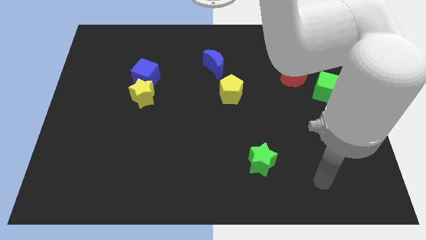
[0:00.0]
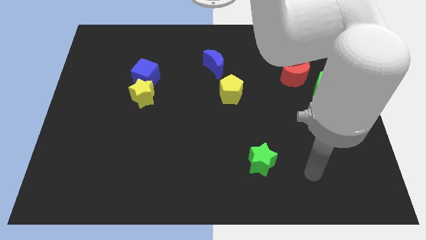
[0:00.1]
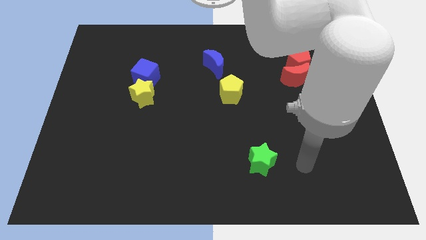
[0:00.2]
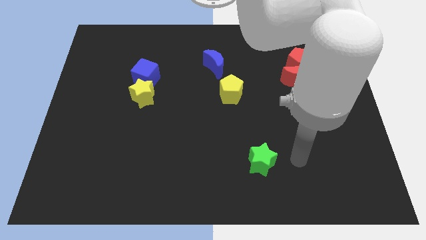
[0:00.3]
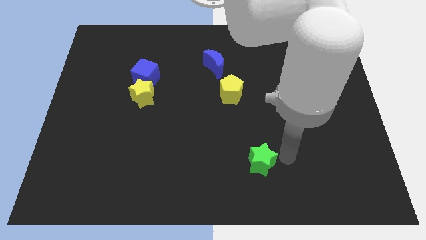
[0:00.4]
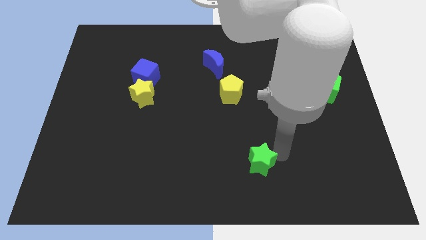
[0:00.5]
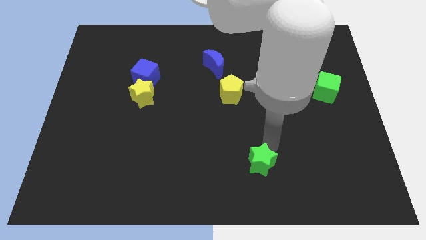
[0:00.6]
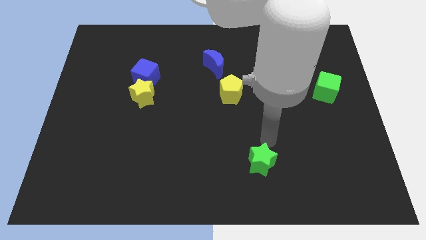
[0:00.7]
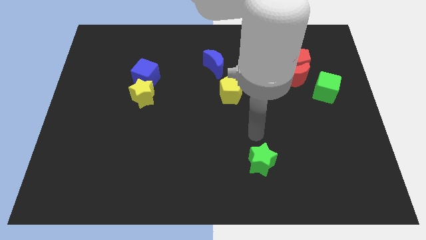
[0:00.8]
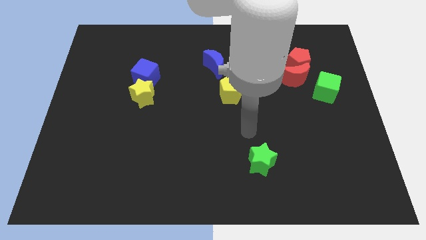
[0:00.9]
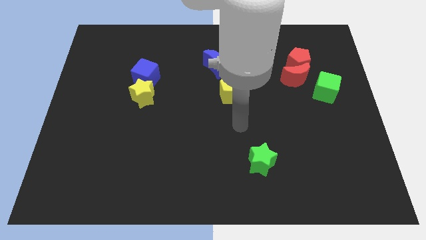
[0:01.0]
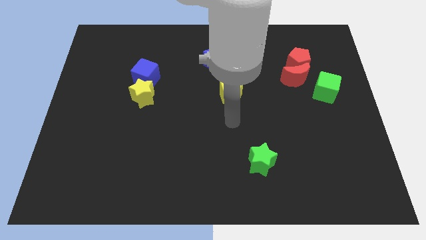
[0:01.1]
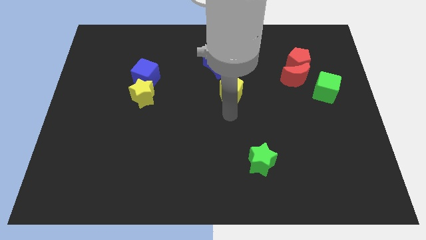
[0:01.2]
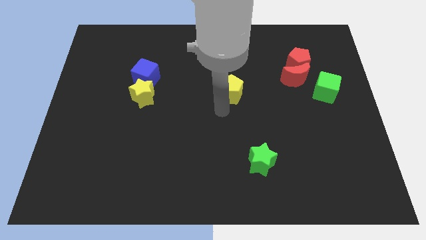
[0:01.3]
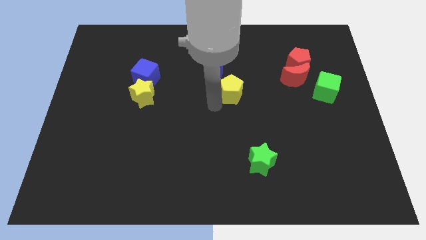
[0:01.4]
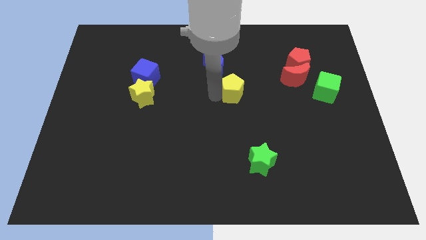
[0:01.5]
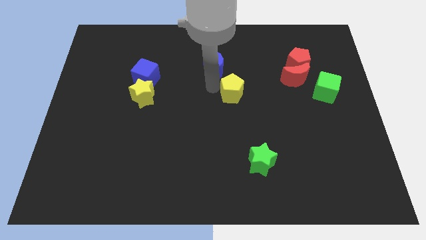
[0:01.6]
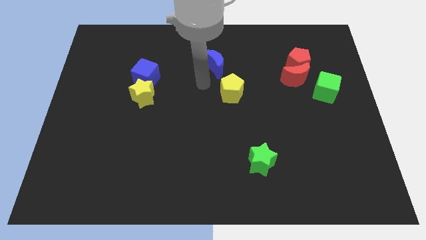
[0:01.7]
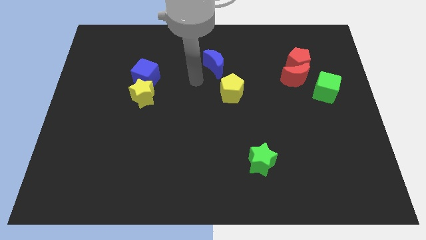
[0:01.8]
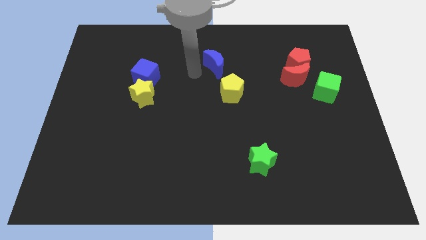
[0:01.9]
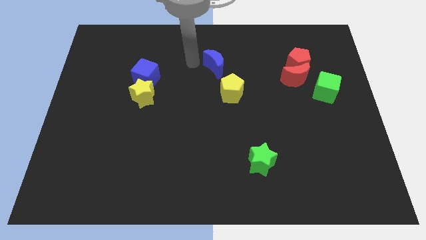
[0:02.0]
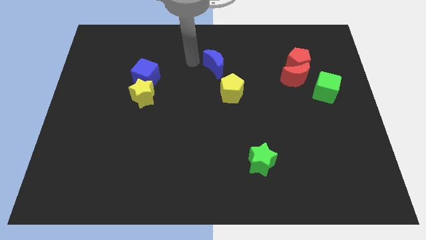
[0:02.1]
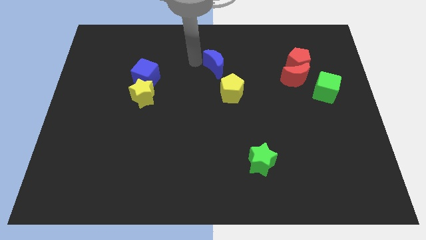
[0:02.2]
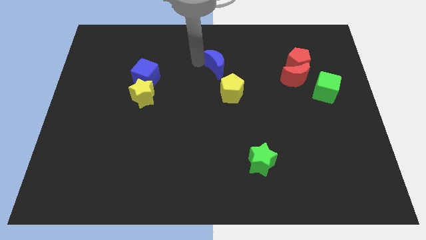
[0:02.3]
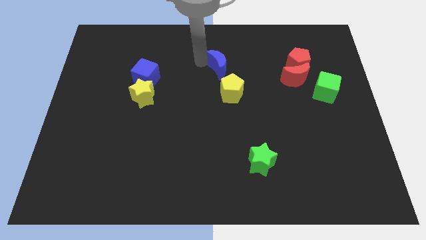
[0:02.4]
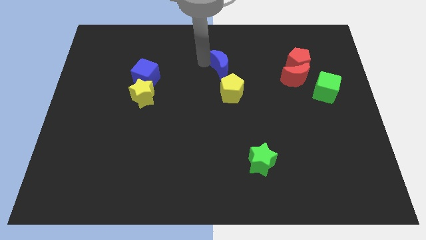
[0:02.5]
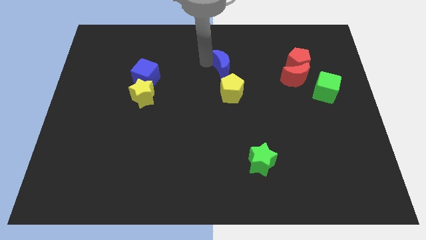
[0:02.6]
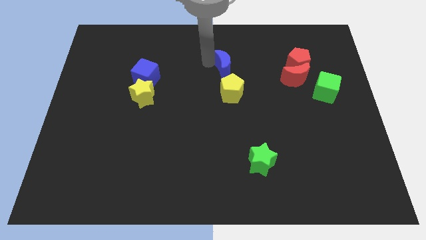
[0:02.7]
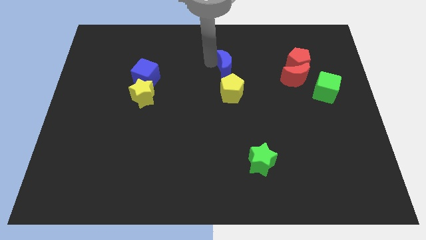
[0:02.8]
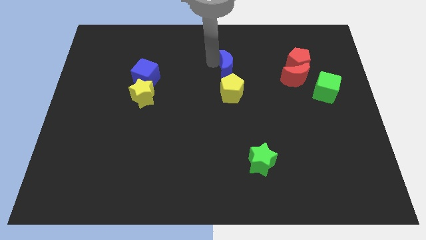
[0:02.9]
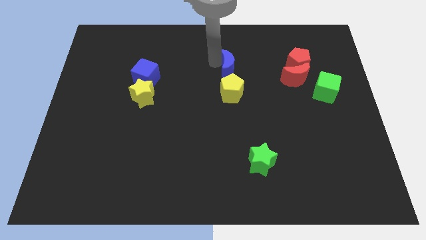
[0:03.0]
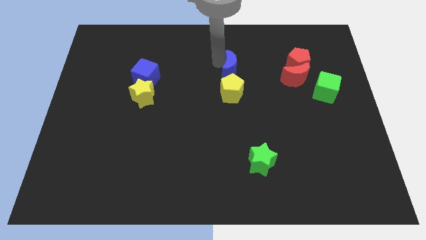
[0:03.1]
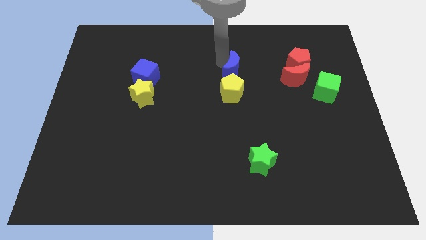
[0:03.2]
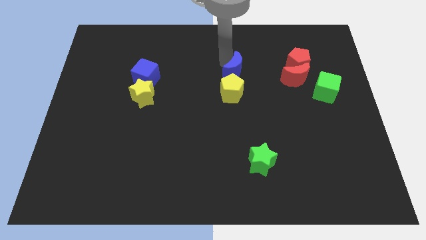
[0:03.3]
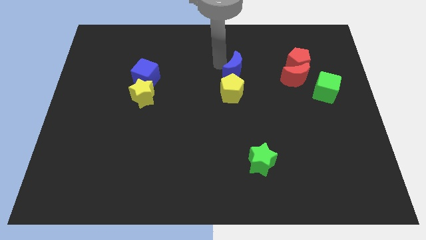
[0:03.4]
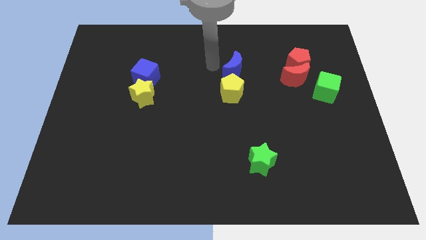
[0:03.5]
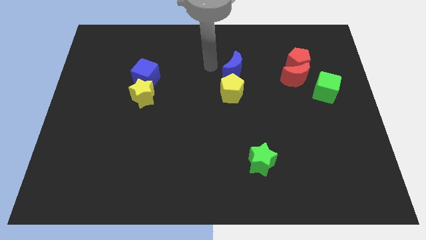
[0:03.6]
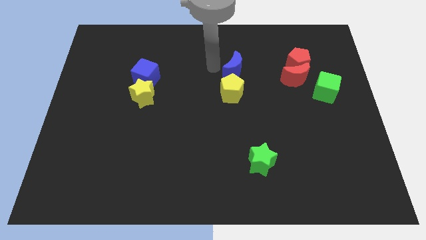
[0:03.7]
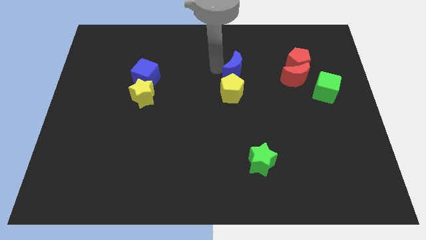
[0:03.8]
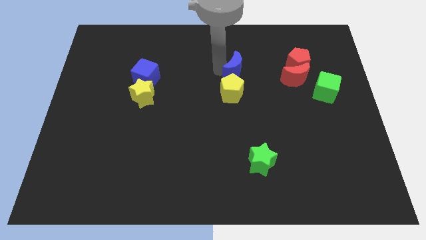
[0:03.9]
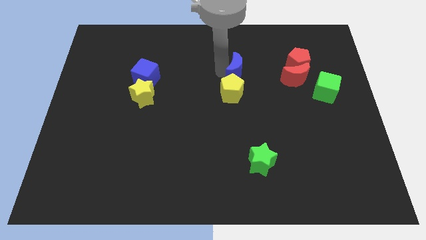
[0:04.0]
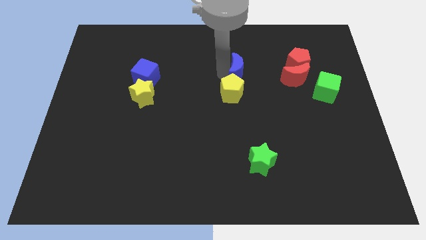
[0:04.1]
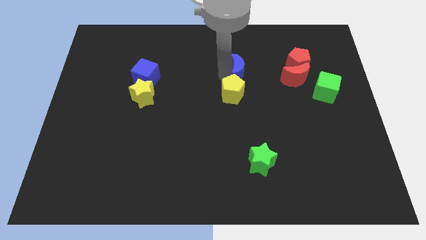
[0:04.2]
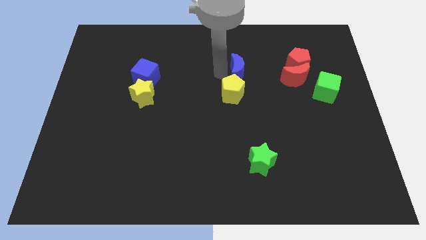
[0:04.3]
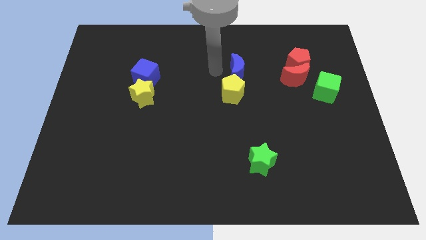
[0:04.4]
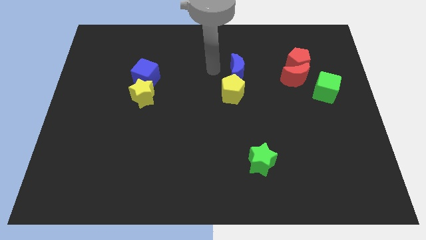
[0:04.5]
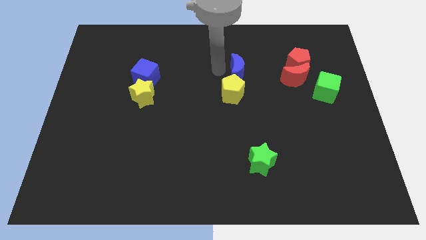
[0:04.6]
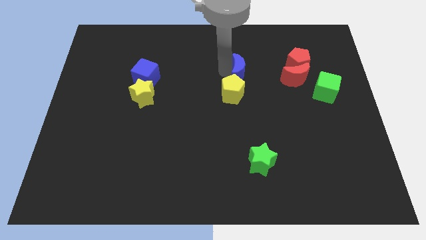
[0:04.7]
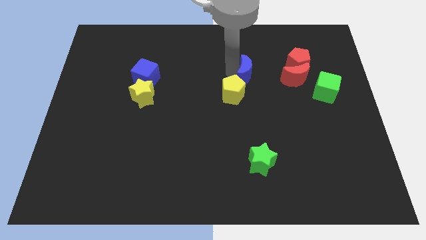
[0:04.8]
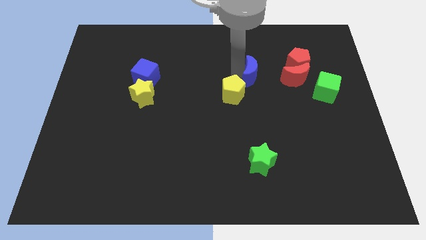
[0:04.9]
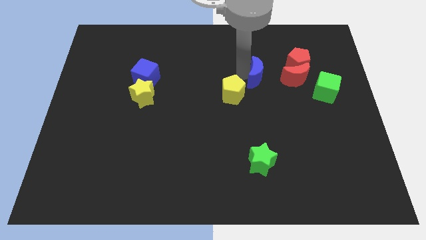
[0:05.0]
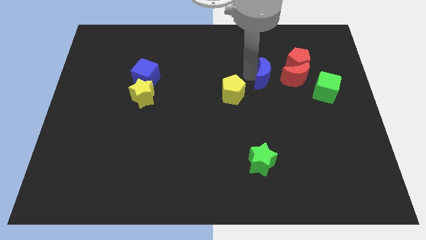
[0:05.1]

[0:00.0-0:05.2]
put the blue moon to the bottom left side of the red pentagon

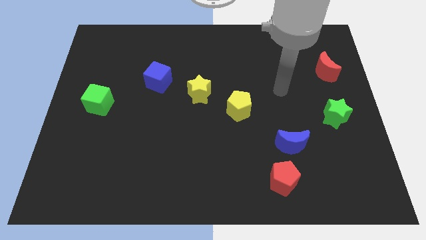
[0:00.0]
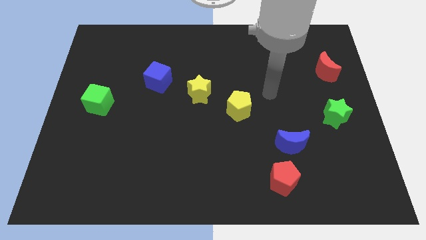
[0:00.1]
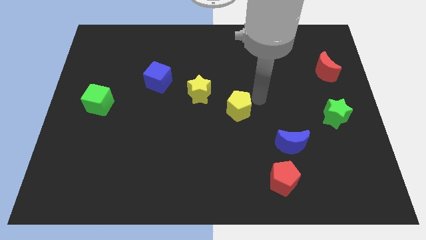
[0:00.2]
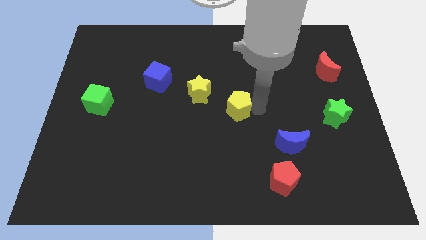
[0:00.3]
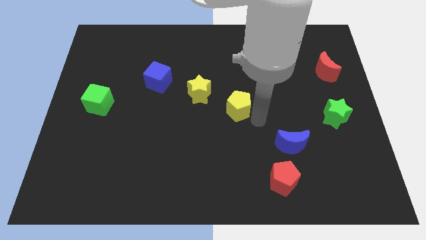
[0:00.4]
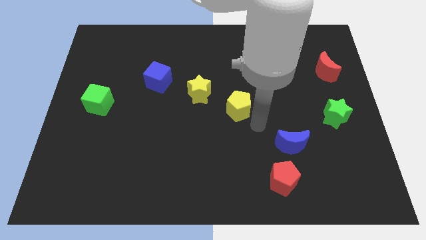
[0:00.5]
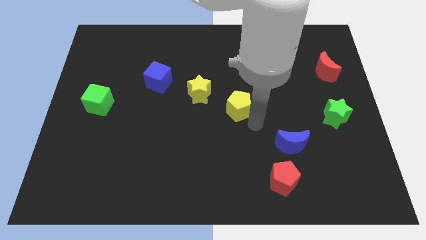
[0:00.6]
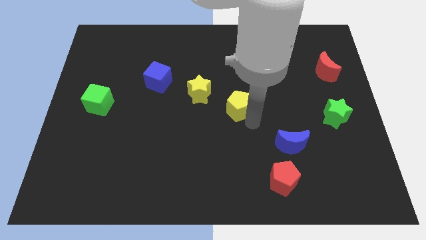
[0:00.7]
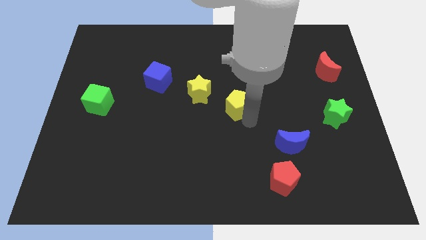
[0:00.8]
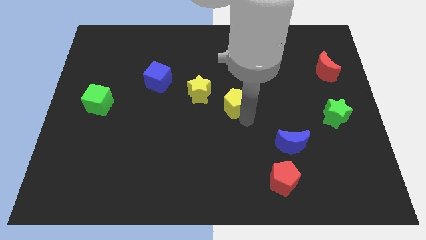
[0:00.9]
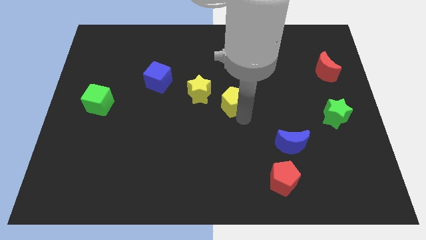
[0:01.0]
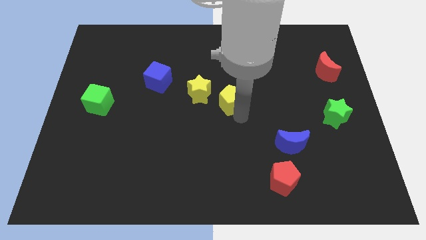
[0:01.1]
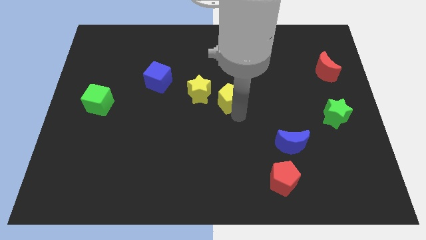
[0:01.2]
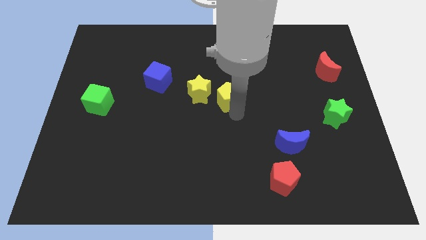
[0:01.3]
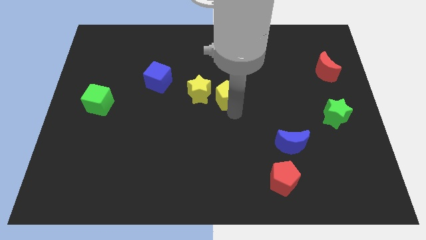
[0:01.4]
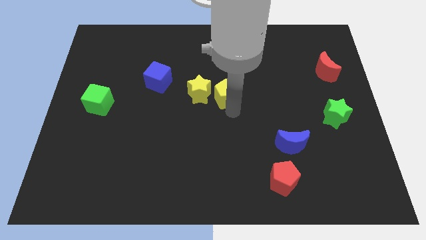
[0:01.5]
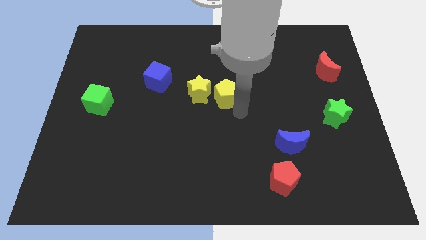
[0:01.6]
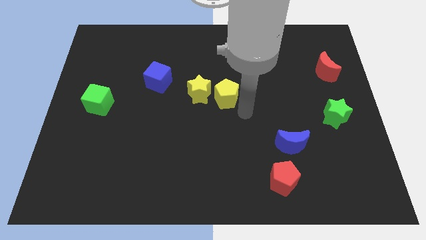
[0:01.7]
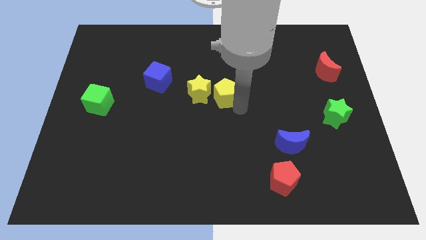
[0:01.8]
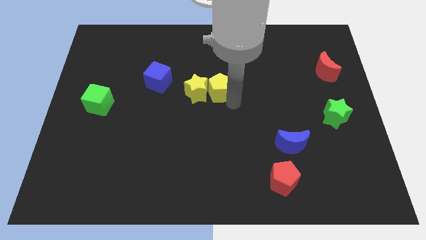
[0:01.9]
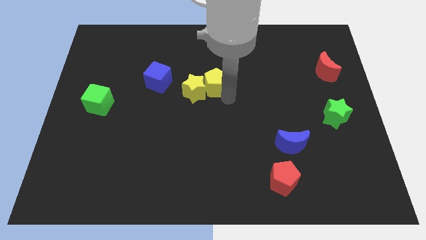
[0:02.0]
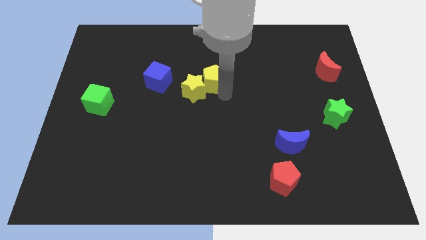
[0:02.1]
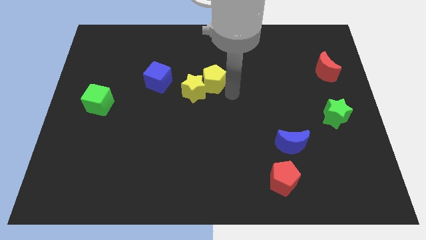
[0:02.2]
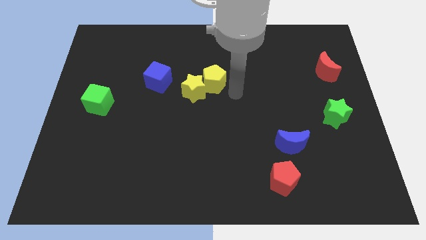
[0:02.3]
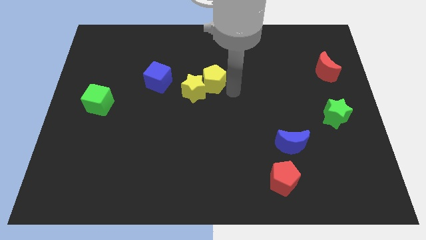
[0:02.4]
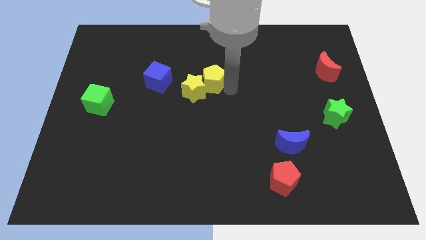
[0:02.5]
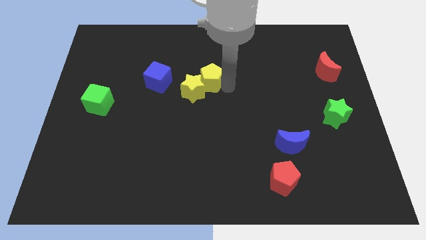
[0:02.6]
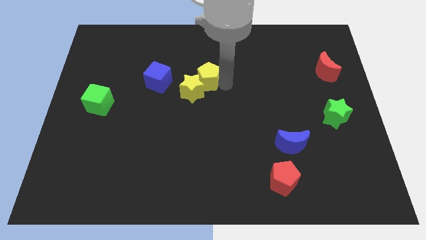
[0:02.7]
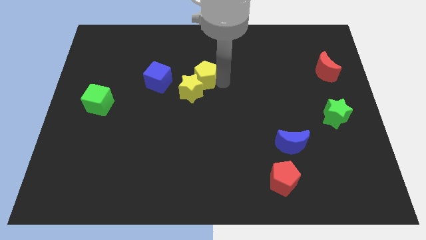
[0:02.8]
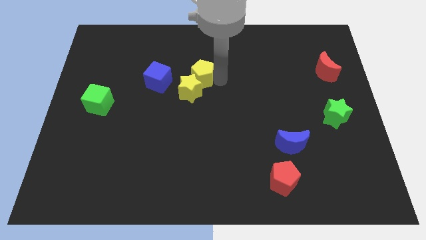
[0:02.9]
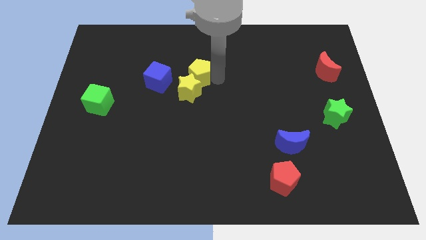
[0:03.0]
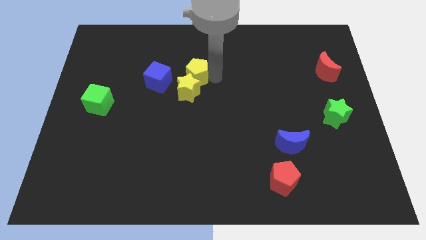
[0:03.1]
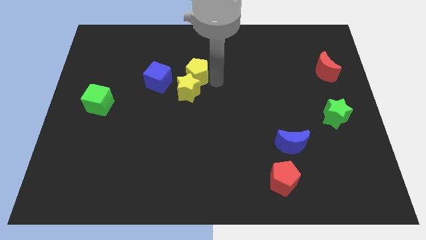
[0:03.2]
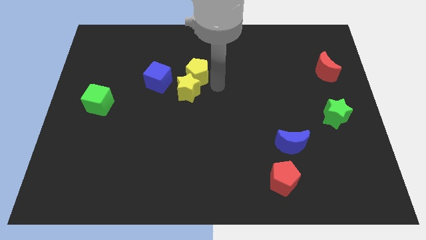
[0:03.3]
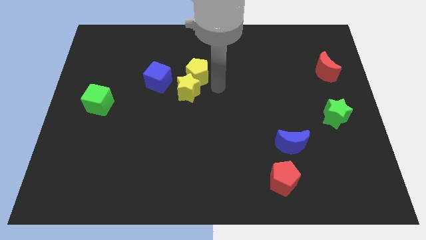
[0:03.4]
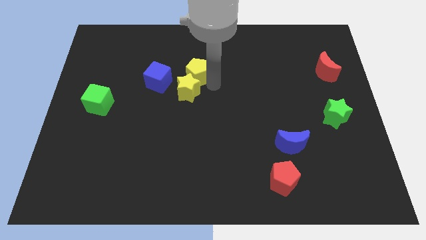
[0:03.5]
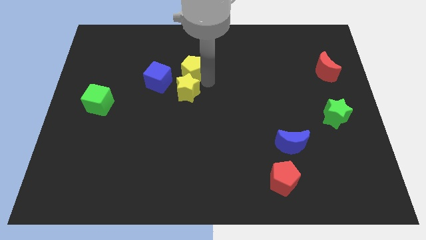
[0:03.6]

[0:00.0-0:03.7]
put the yellow pentagon diagonally up and to the right of the blue cube
